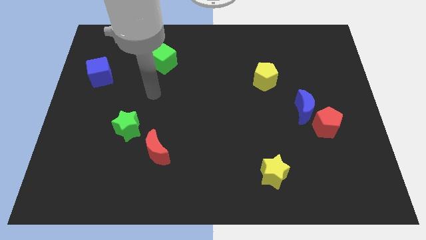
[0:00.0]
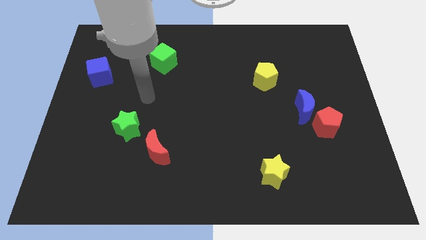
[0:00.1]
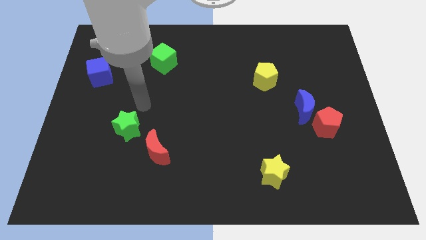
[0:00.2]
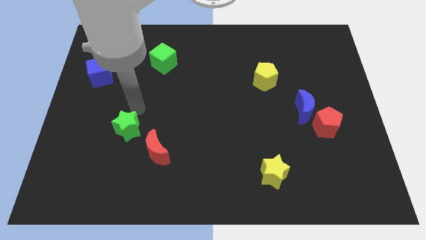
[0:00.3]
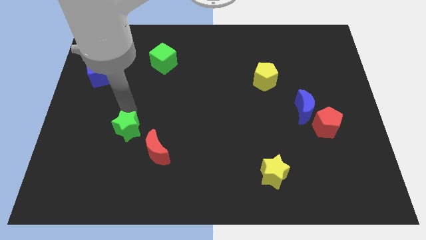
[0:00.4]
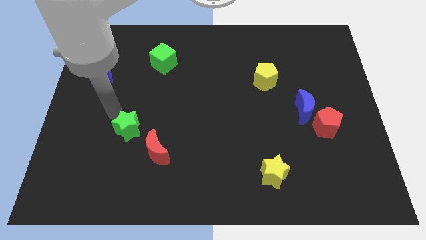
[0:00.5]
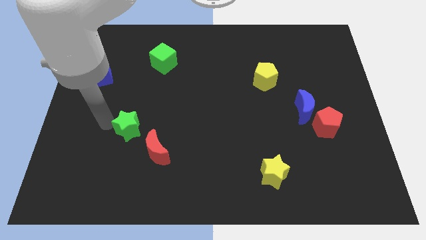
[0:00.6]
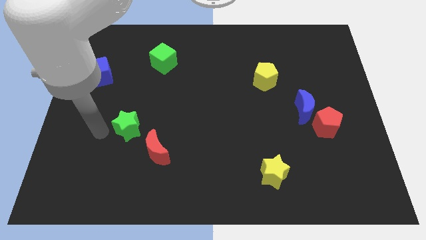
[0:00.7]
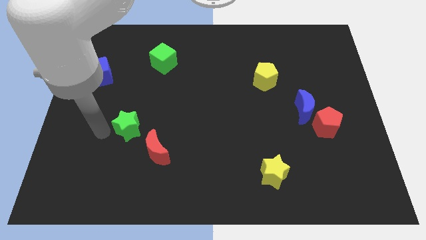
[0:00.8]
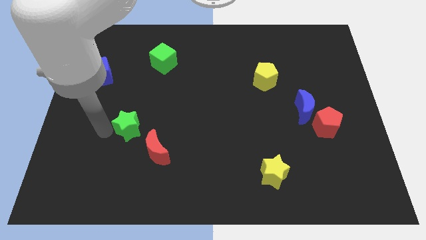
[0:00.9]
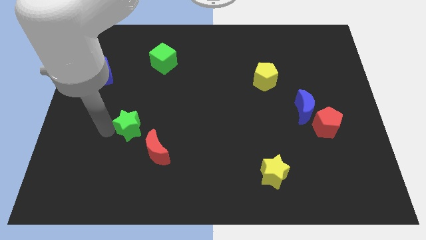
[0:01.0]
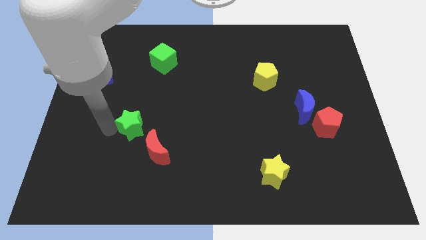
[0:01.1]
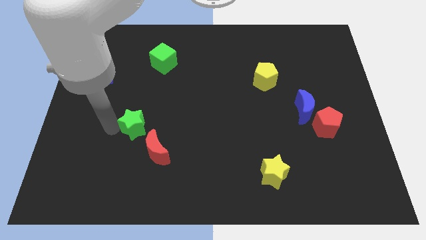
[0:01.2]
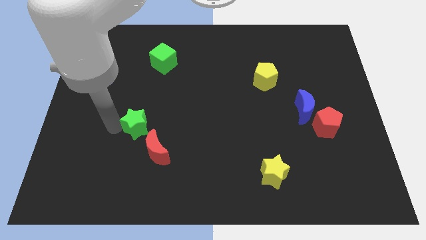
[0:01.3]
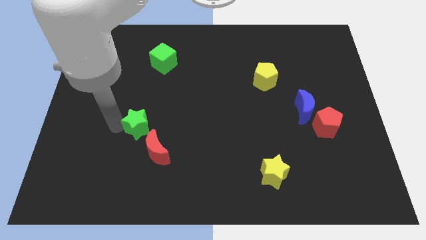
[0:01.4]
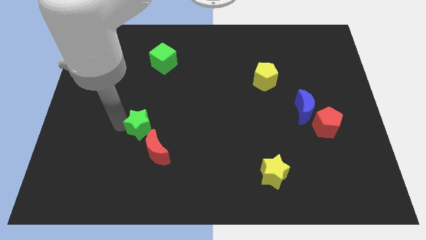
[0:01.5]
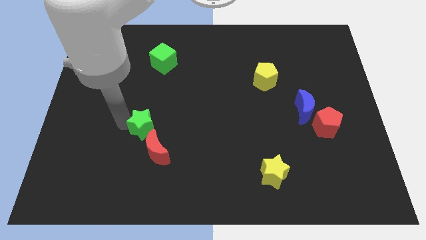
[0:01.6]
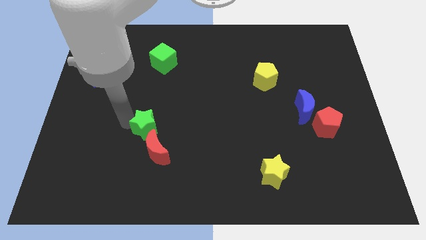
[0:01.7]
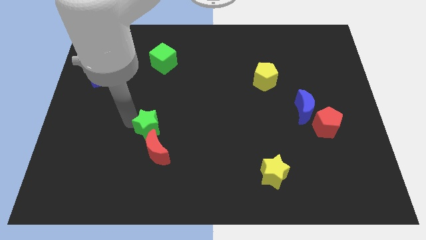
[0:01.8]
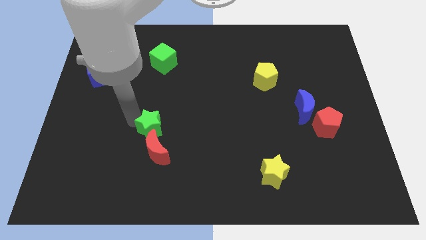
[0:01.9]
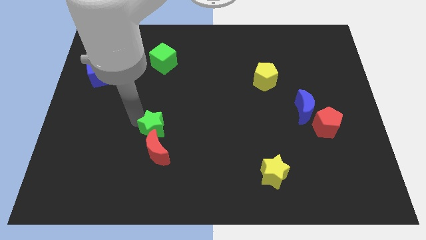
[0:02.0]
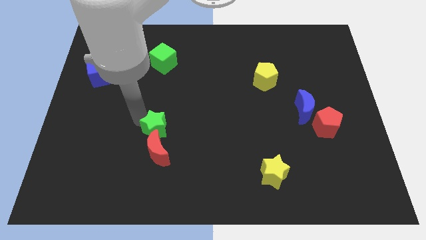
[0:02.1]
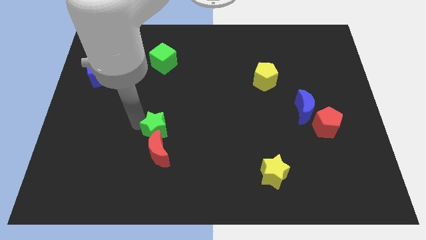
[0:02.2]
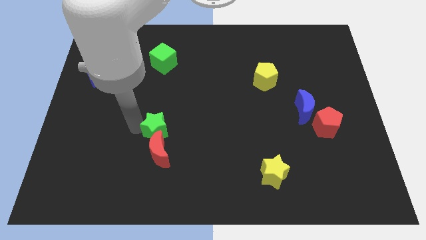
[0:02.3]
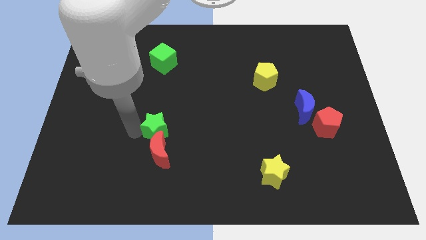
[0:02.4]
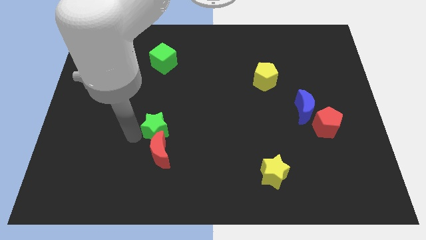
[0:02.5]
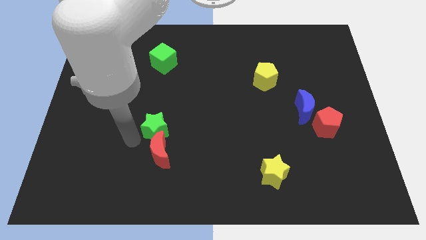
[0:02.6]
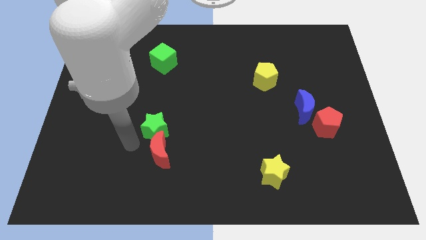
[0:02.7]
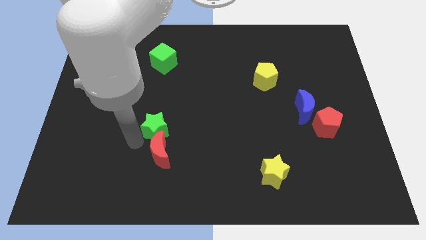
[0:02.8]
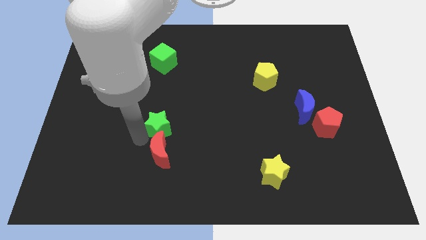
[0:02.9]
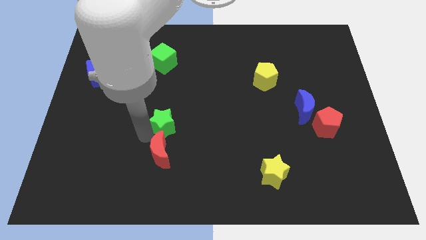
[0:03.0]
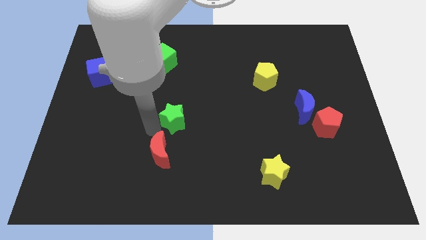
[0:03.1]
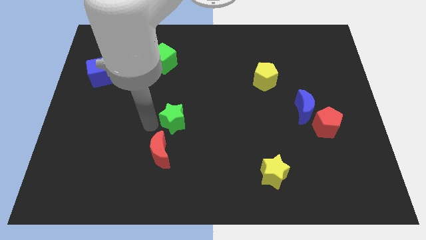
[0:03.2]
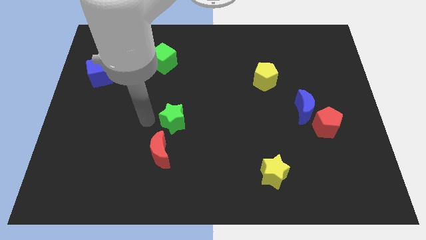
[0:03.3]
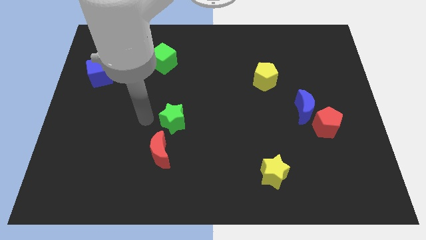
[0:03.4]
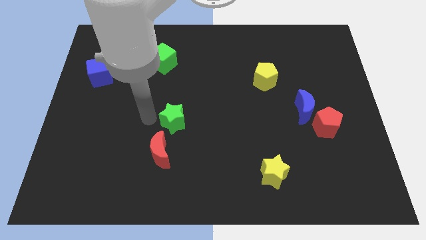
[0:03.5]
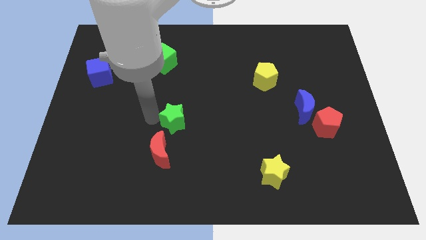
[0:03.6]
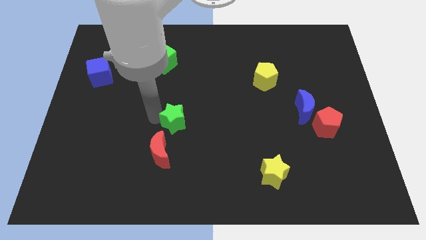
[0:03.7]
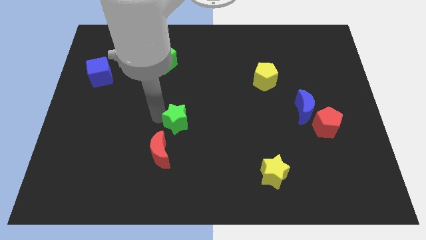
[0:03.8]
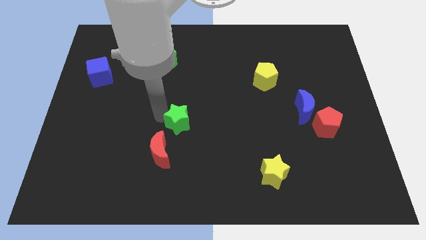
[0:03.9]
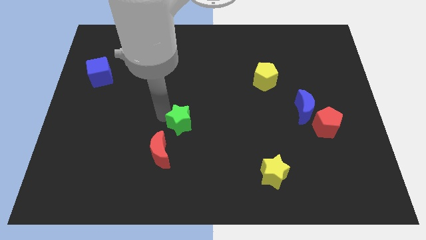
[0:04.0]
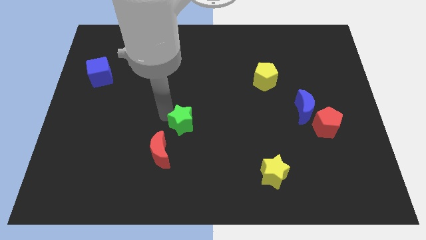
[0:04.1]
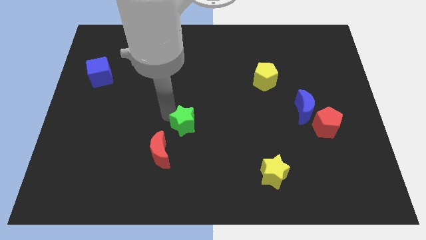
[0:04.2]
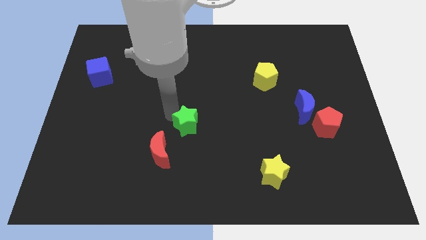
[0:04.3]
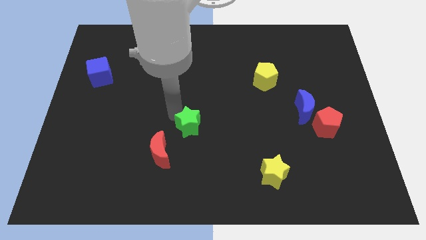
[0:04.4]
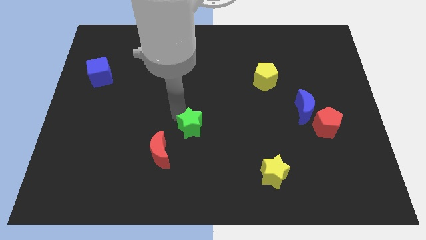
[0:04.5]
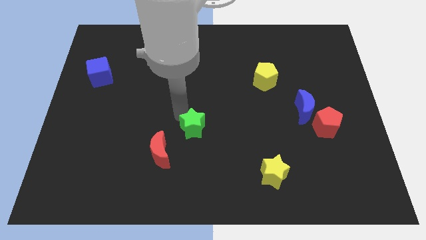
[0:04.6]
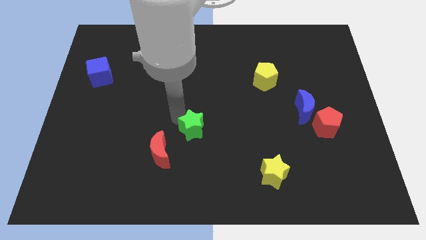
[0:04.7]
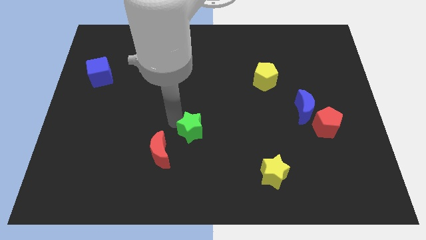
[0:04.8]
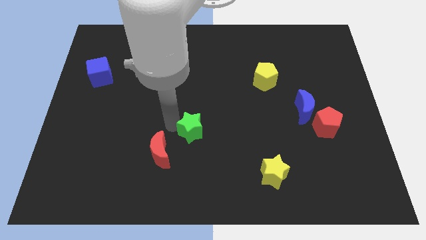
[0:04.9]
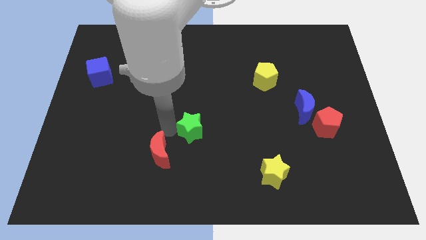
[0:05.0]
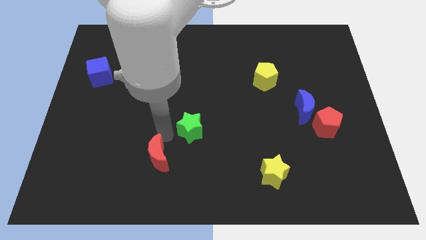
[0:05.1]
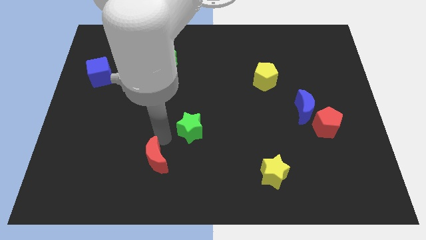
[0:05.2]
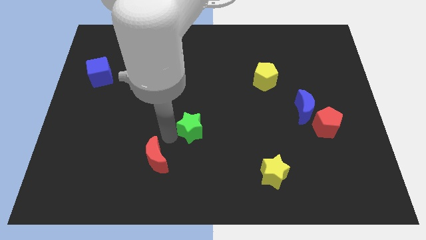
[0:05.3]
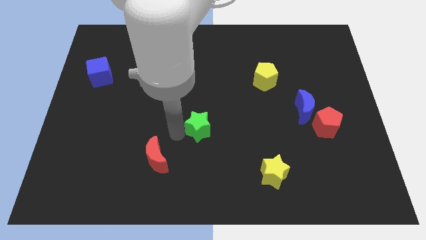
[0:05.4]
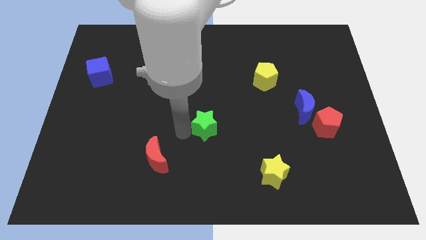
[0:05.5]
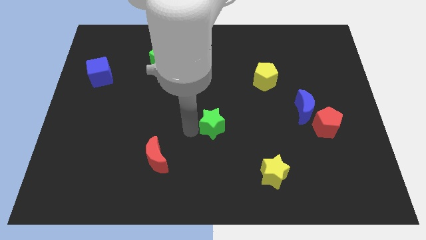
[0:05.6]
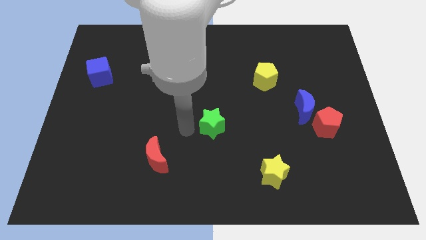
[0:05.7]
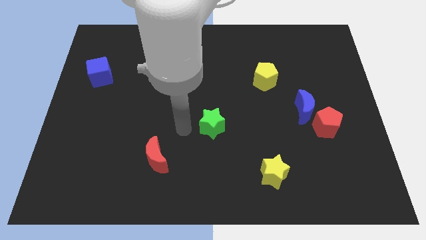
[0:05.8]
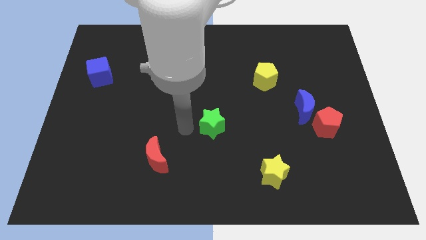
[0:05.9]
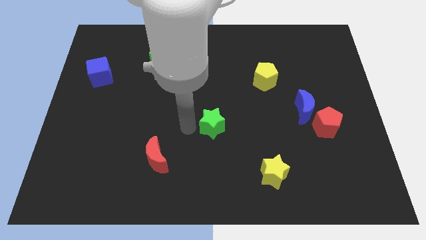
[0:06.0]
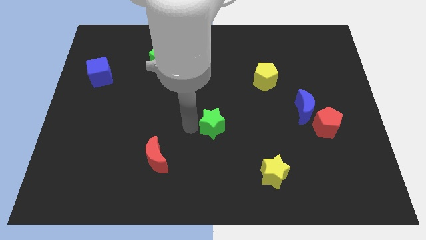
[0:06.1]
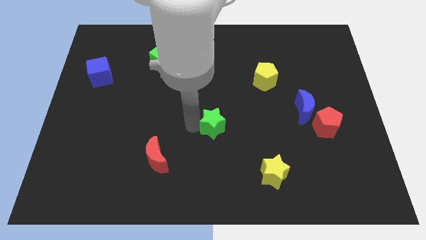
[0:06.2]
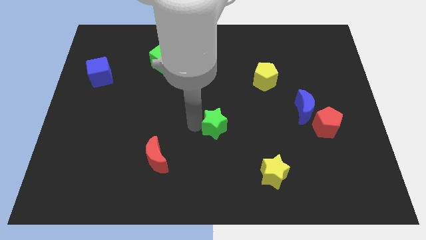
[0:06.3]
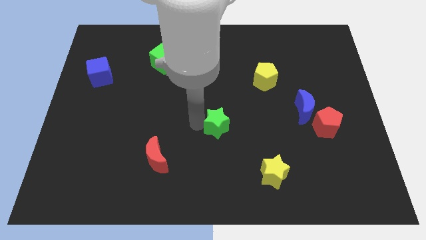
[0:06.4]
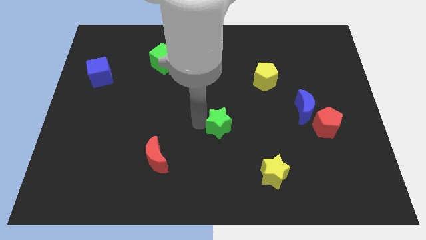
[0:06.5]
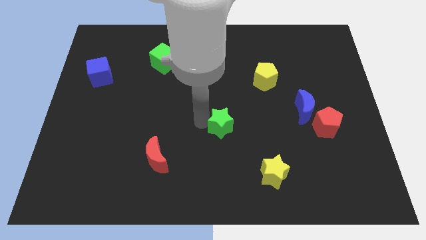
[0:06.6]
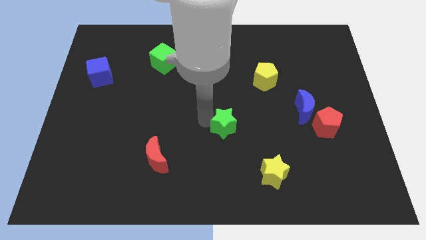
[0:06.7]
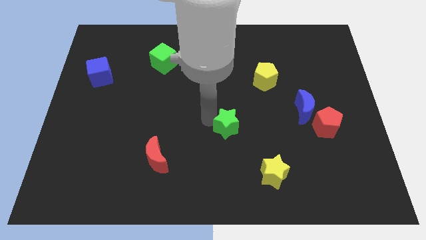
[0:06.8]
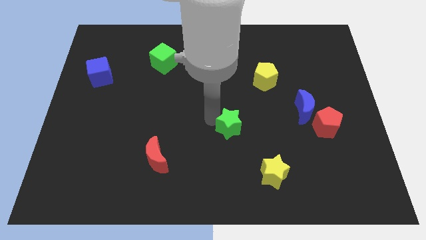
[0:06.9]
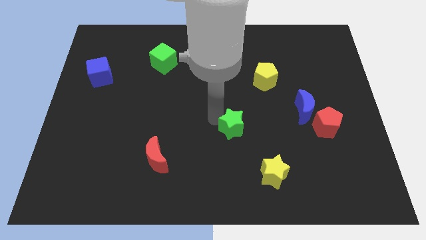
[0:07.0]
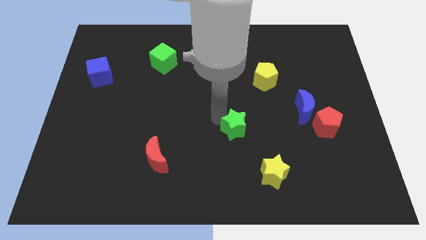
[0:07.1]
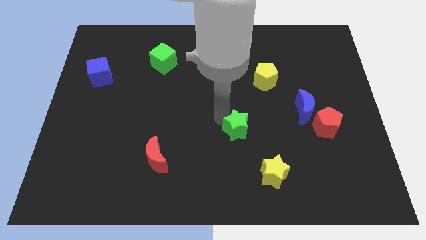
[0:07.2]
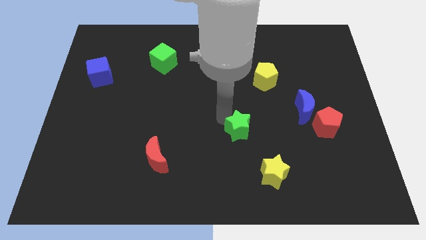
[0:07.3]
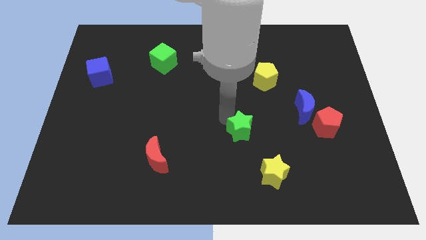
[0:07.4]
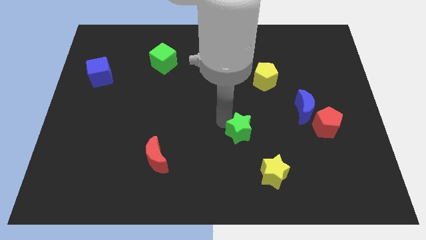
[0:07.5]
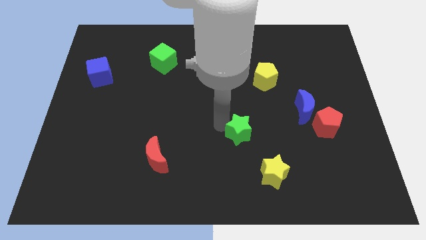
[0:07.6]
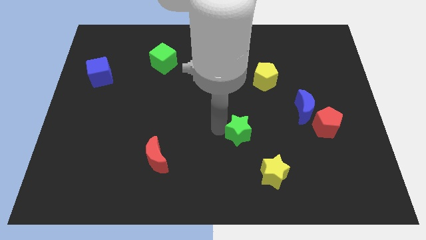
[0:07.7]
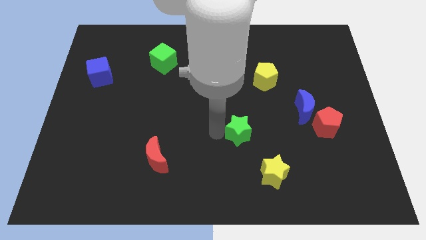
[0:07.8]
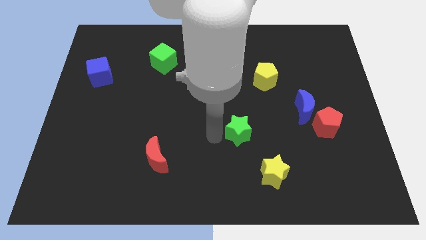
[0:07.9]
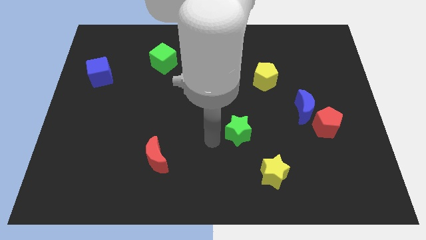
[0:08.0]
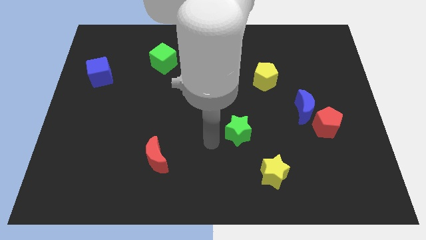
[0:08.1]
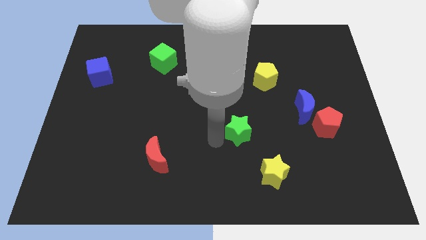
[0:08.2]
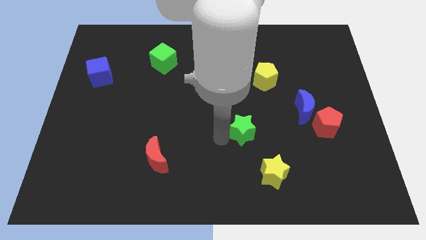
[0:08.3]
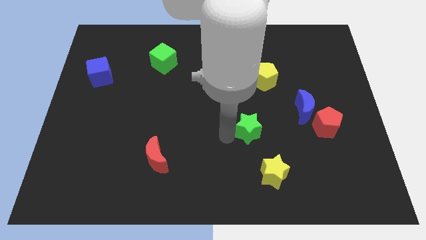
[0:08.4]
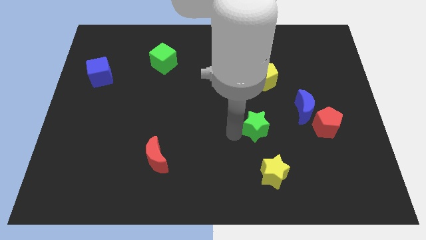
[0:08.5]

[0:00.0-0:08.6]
push the green star to the left side of the red pentagon
